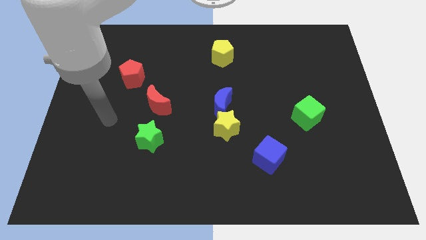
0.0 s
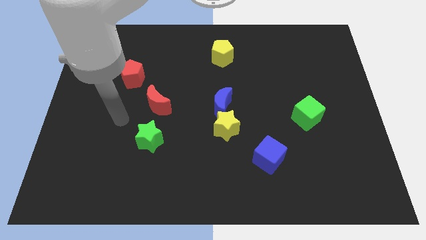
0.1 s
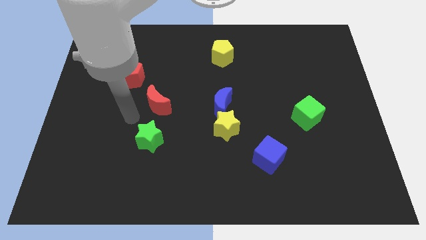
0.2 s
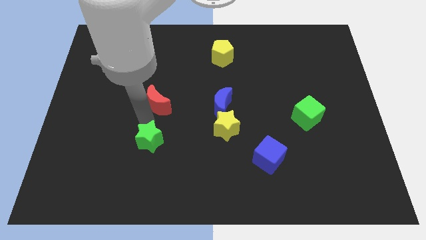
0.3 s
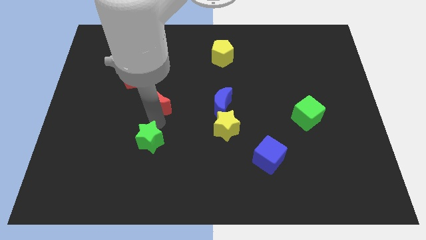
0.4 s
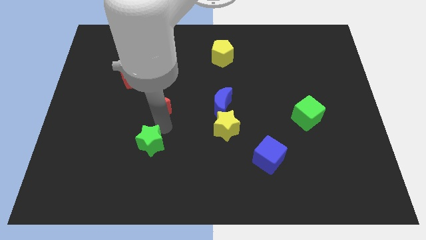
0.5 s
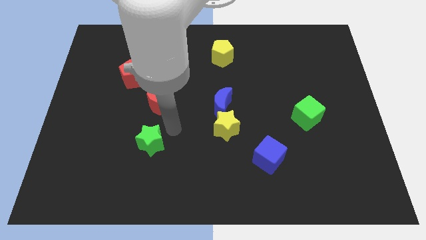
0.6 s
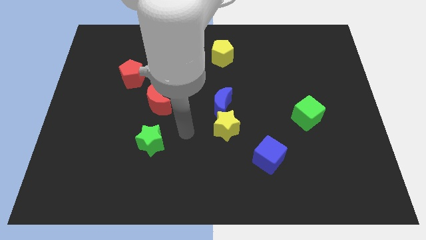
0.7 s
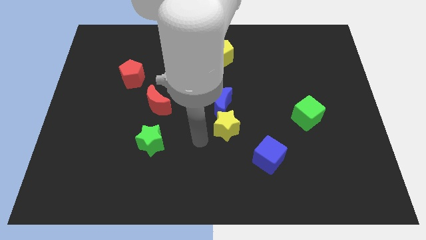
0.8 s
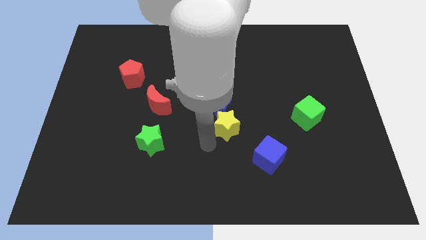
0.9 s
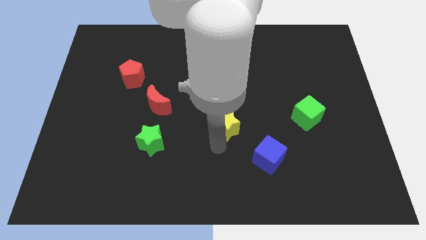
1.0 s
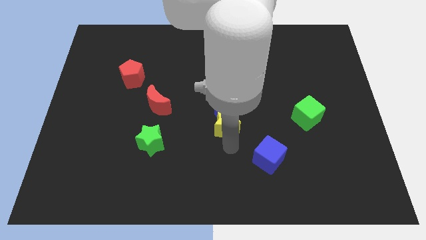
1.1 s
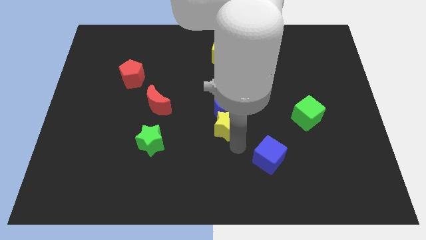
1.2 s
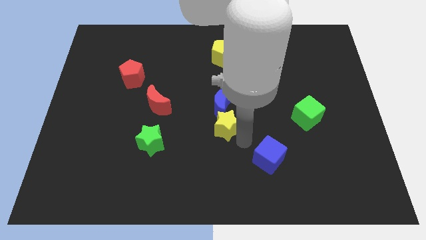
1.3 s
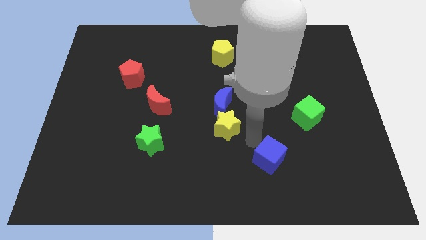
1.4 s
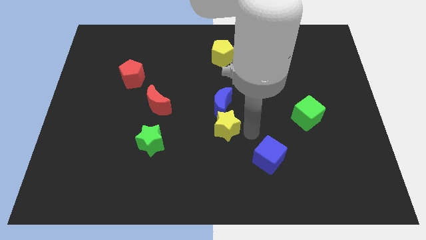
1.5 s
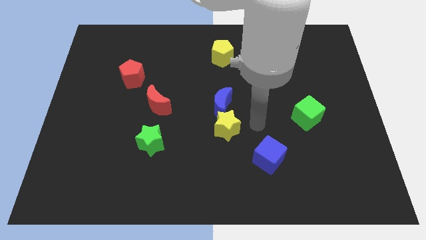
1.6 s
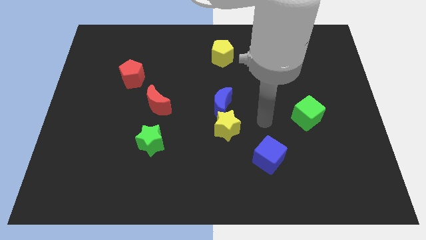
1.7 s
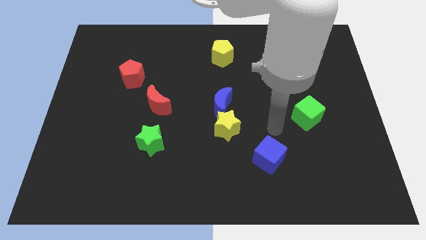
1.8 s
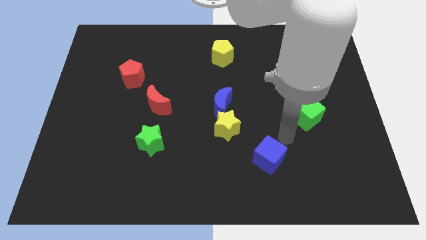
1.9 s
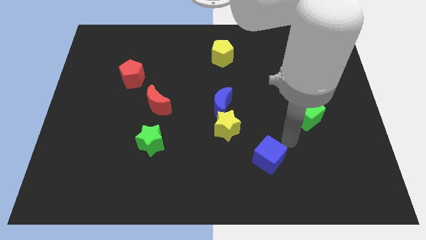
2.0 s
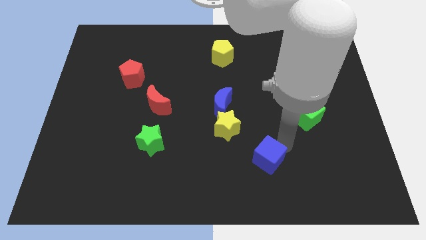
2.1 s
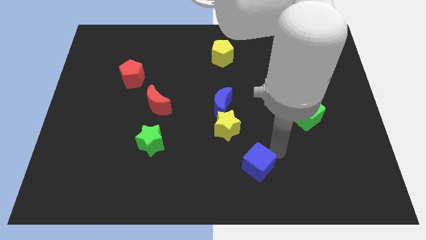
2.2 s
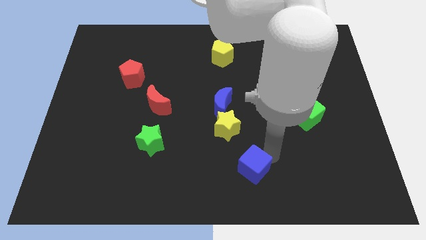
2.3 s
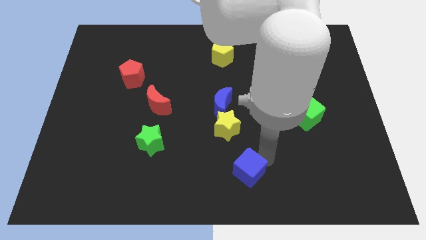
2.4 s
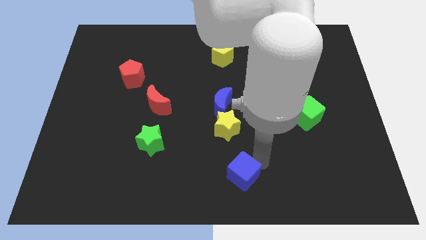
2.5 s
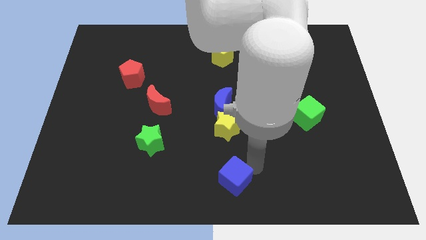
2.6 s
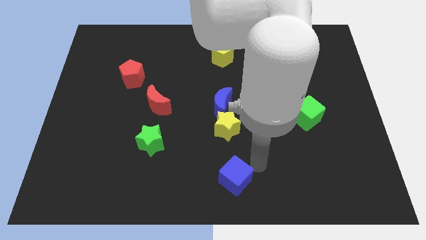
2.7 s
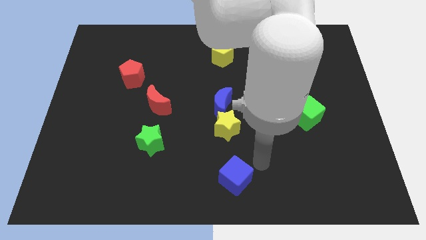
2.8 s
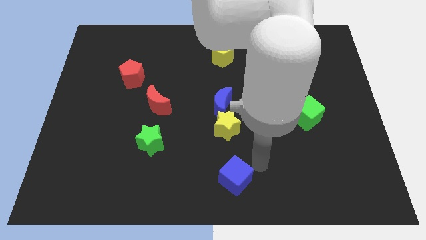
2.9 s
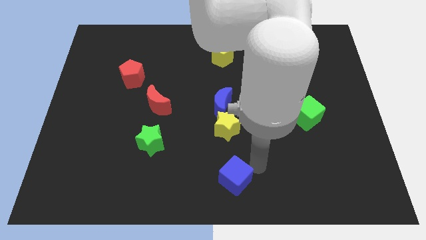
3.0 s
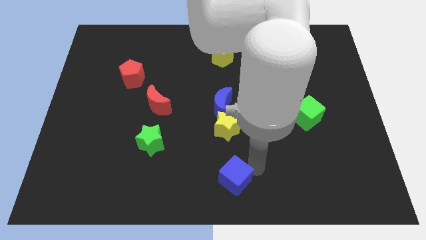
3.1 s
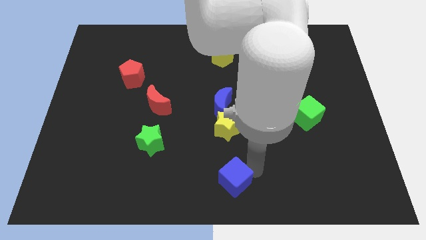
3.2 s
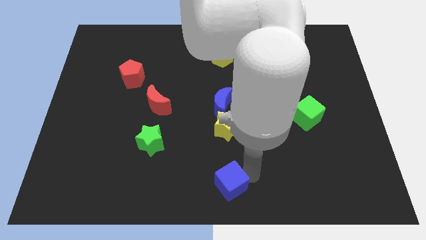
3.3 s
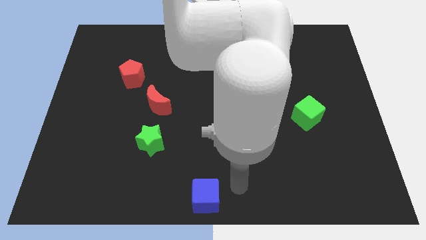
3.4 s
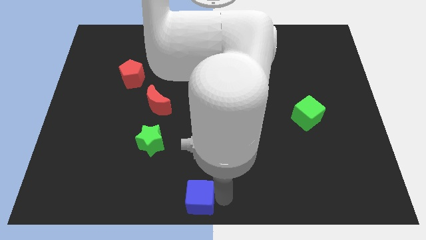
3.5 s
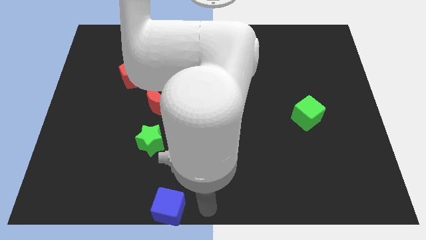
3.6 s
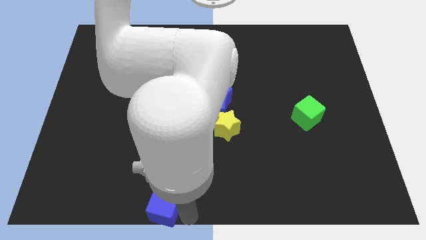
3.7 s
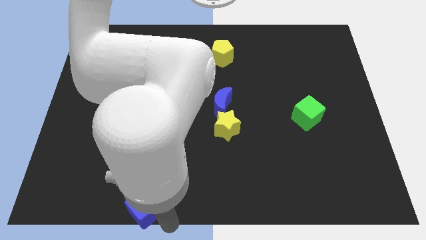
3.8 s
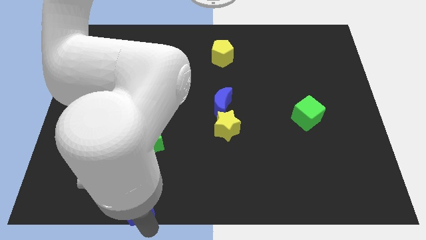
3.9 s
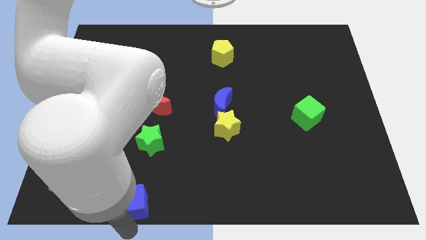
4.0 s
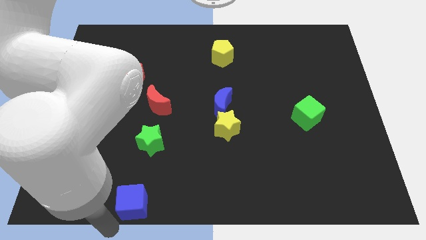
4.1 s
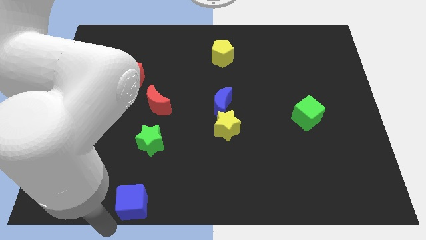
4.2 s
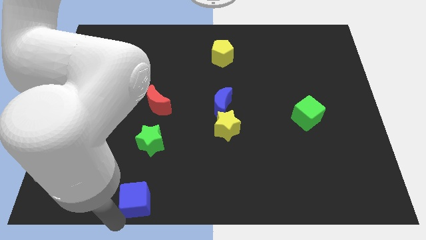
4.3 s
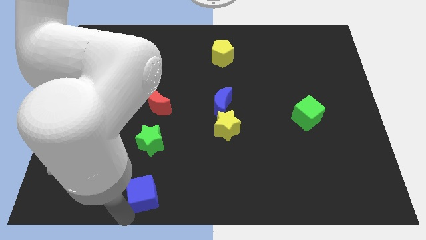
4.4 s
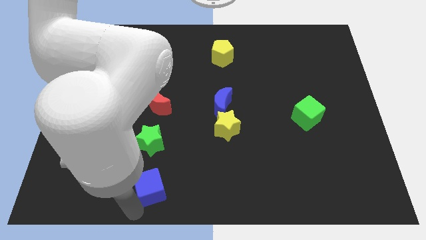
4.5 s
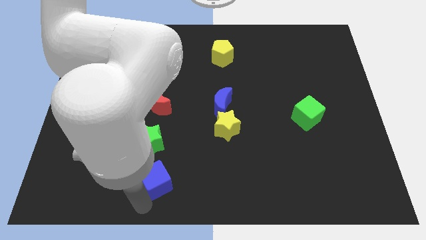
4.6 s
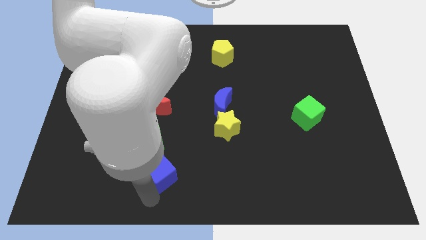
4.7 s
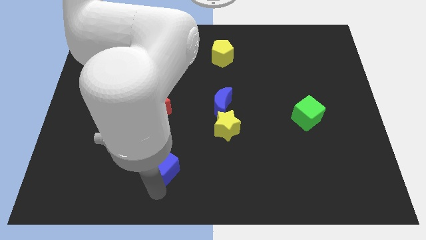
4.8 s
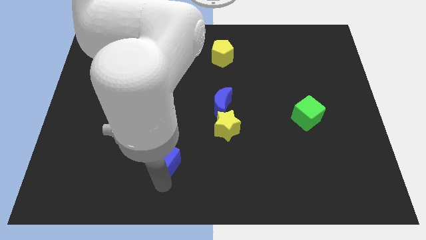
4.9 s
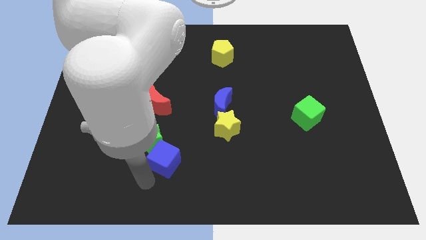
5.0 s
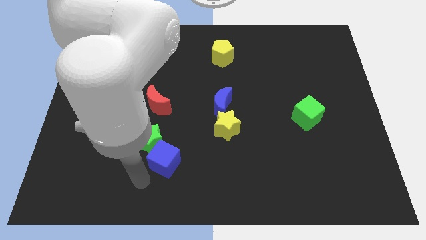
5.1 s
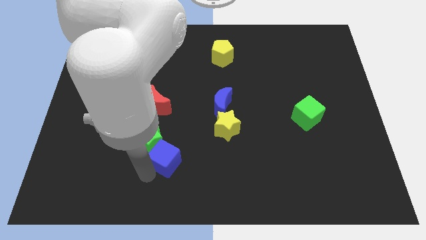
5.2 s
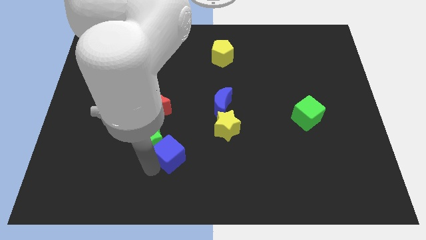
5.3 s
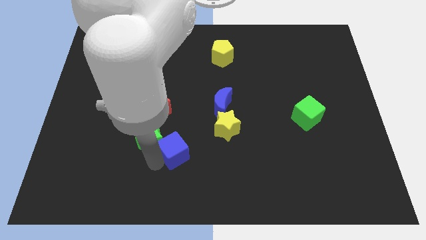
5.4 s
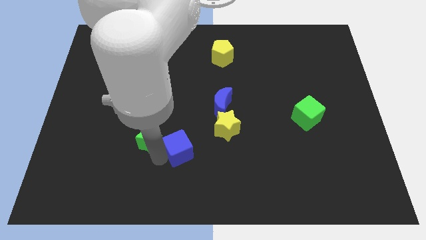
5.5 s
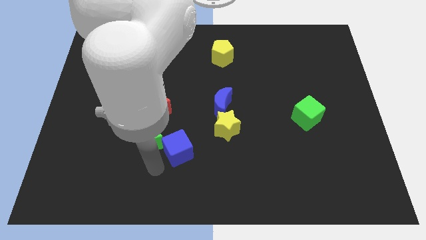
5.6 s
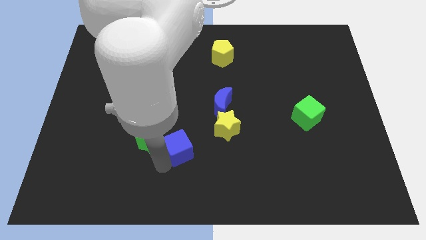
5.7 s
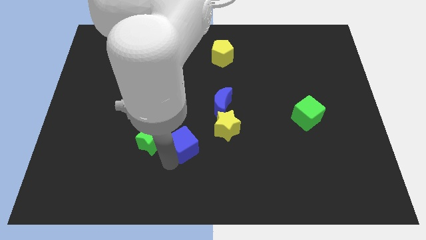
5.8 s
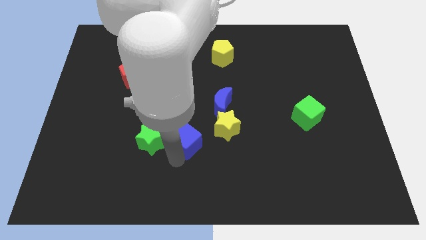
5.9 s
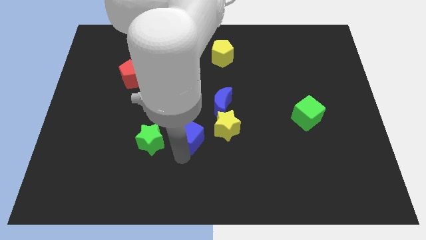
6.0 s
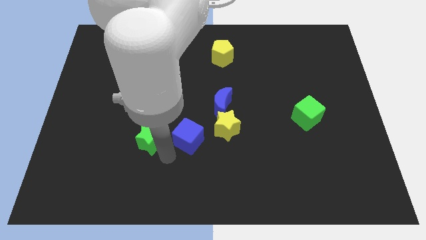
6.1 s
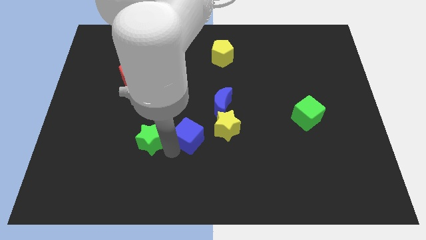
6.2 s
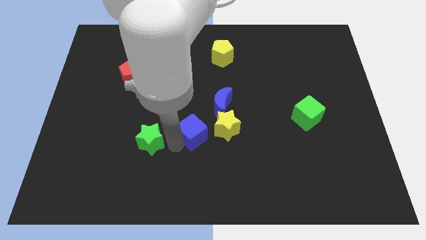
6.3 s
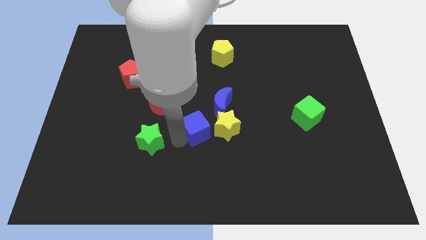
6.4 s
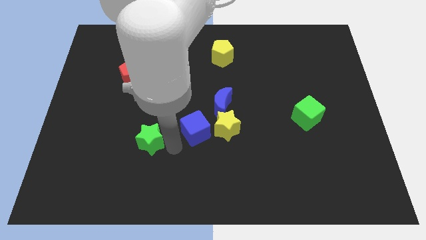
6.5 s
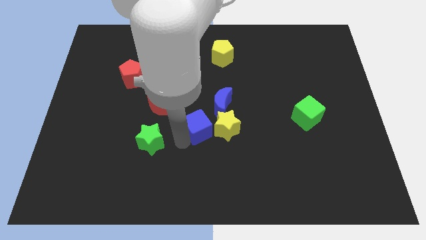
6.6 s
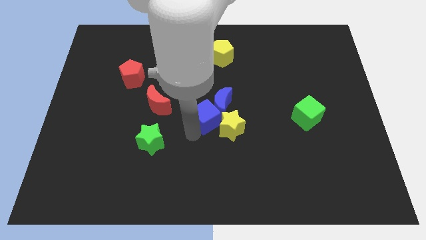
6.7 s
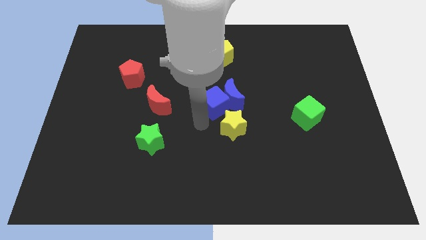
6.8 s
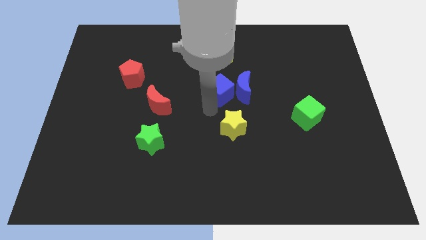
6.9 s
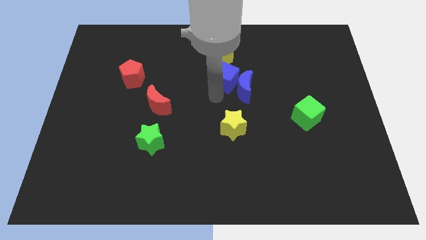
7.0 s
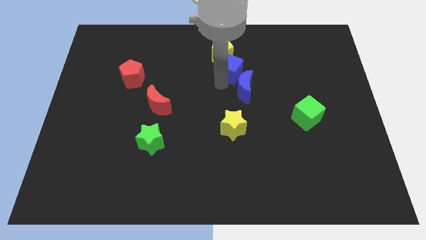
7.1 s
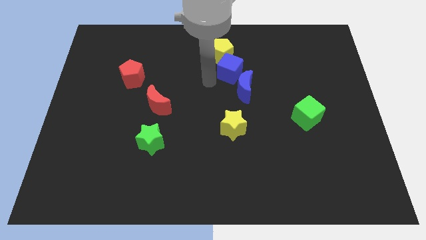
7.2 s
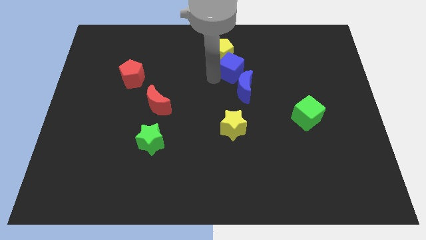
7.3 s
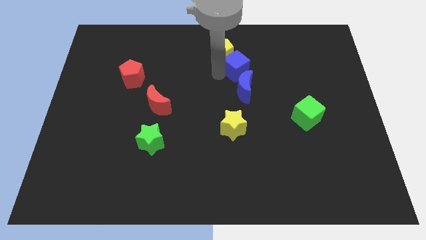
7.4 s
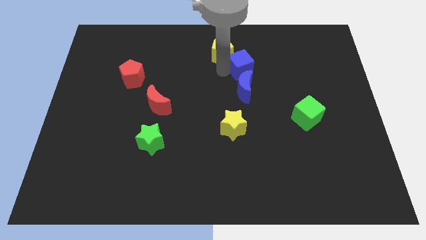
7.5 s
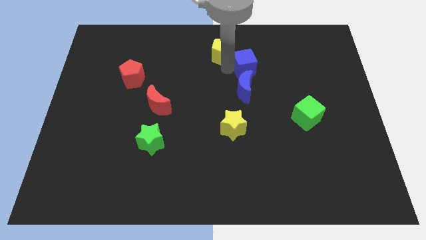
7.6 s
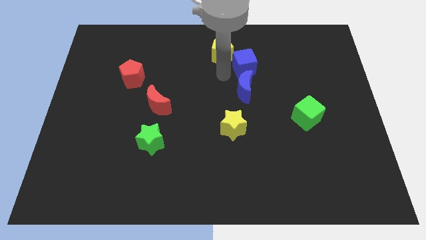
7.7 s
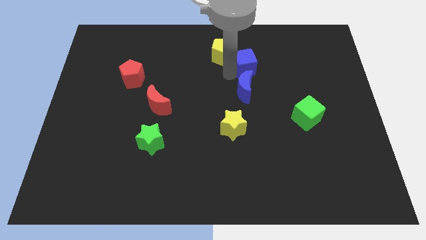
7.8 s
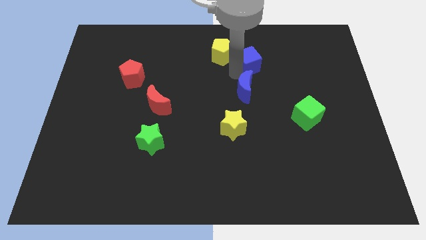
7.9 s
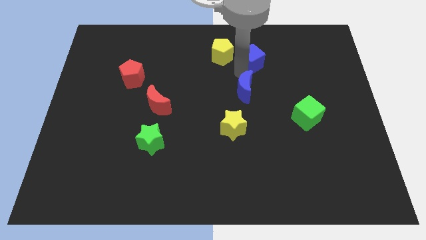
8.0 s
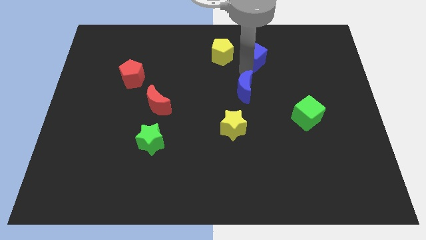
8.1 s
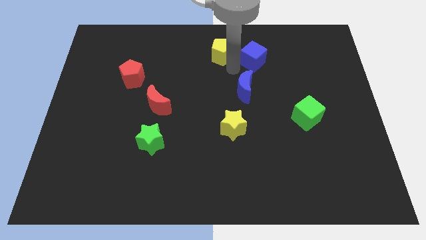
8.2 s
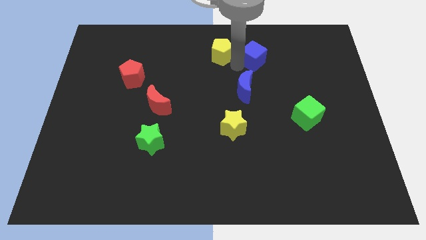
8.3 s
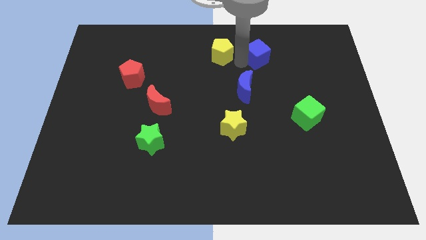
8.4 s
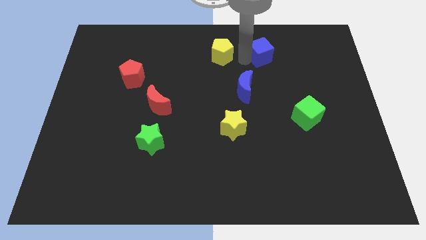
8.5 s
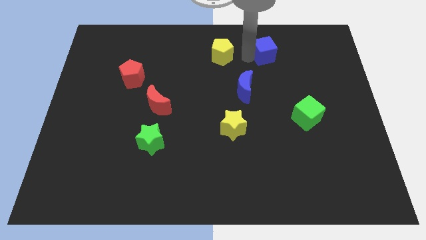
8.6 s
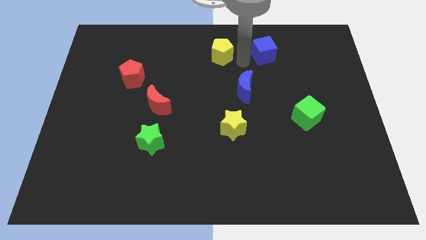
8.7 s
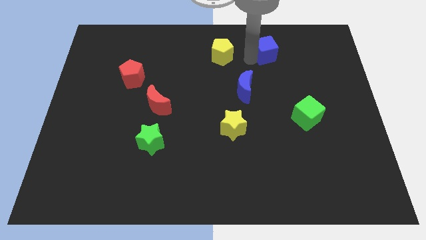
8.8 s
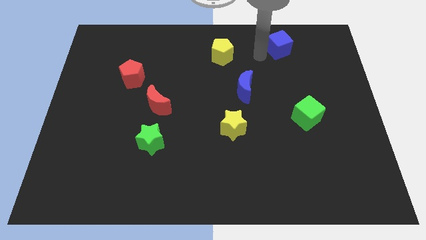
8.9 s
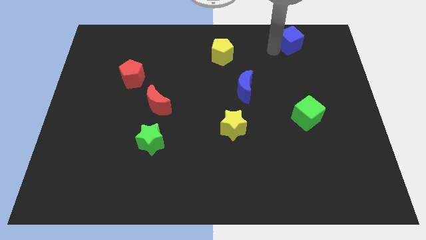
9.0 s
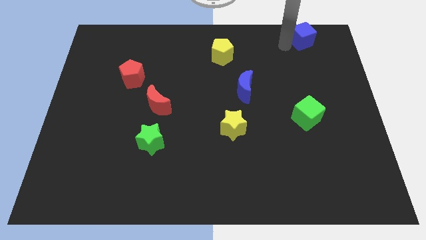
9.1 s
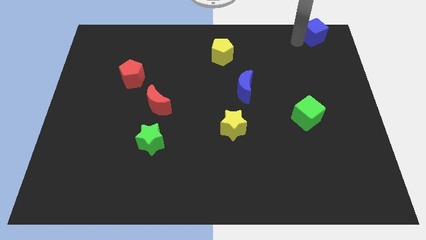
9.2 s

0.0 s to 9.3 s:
slide the blue cube to the upper right corner
